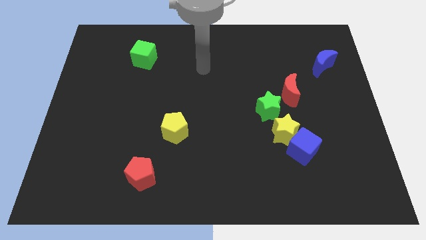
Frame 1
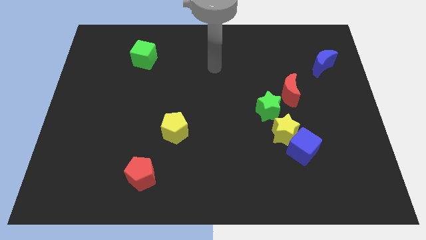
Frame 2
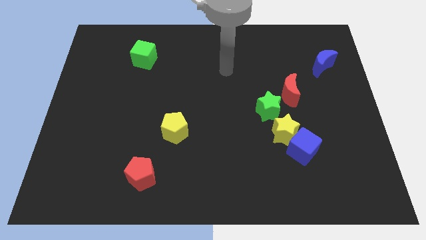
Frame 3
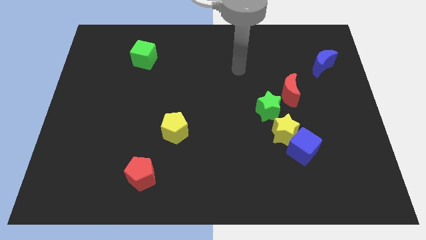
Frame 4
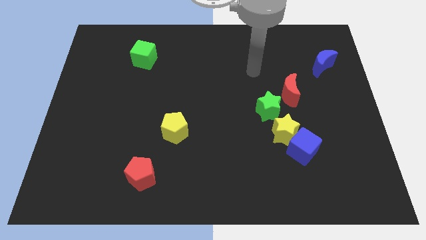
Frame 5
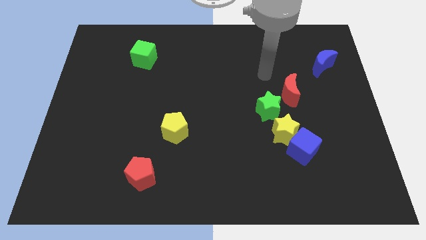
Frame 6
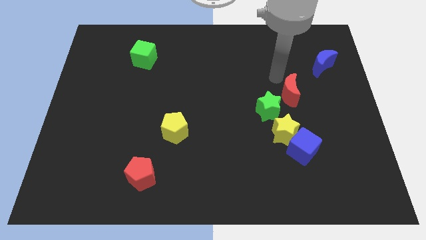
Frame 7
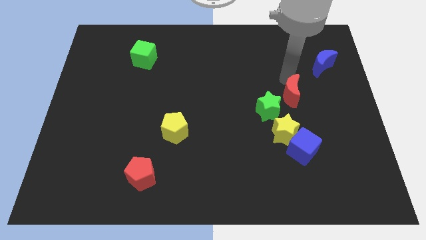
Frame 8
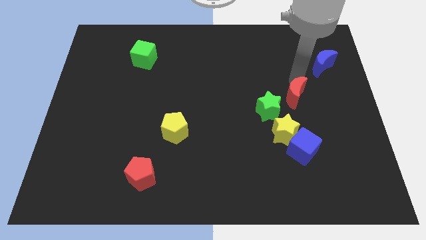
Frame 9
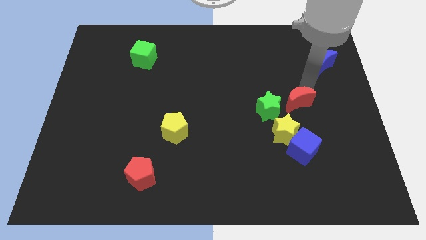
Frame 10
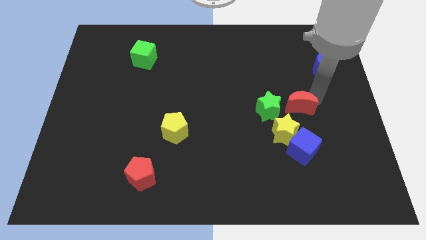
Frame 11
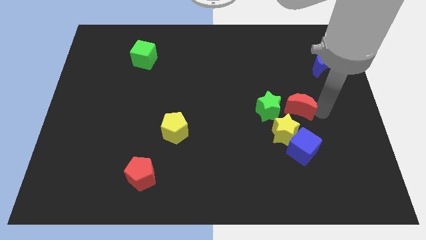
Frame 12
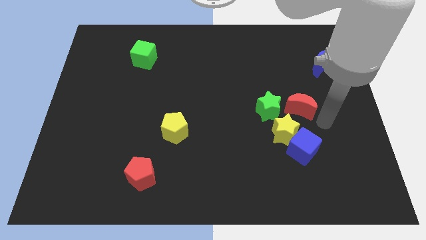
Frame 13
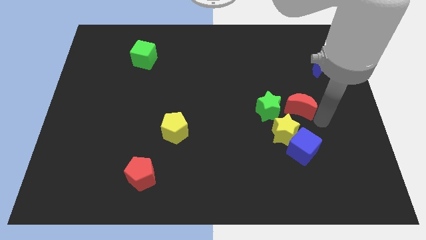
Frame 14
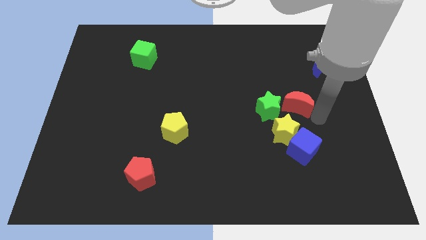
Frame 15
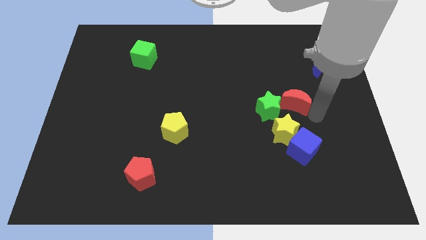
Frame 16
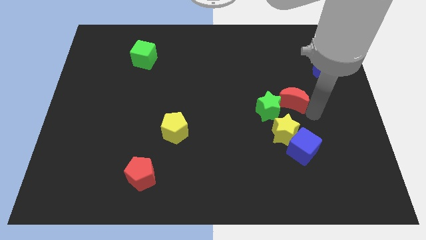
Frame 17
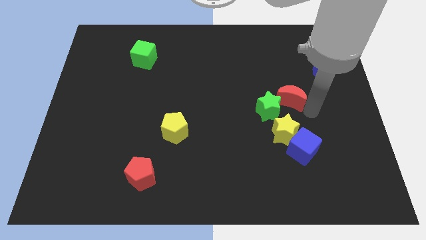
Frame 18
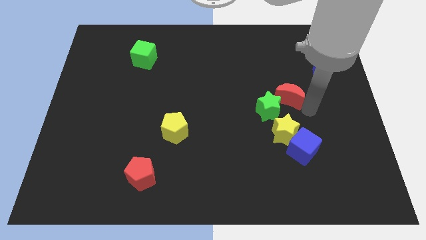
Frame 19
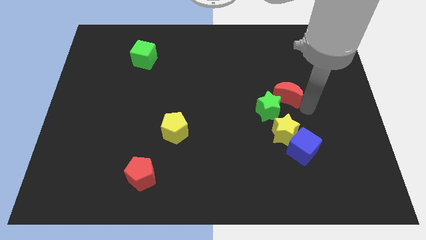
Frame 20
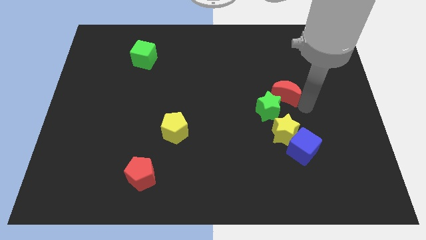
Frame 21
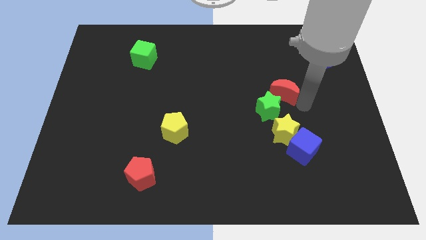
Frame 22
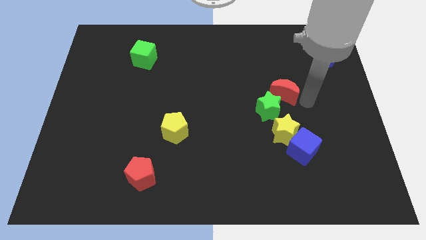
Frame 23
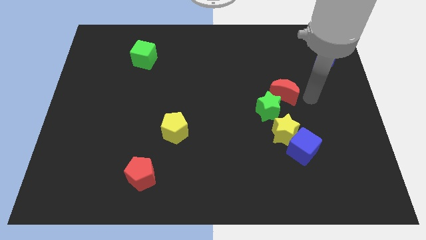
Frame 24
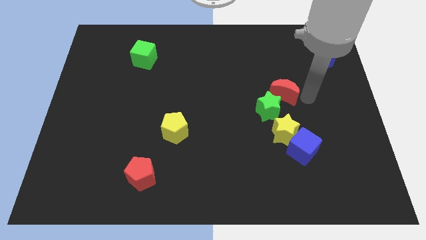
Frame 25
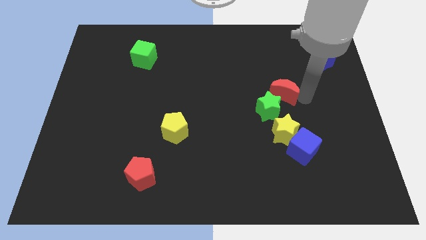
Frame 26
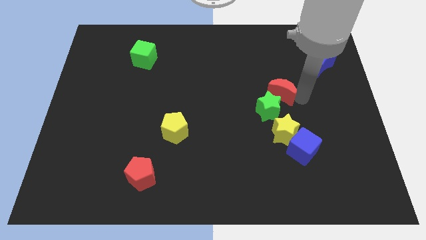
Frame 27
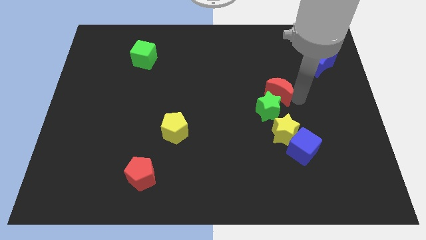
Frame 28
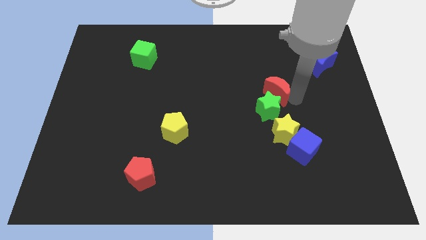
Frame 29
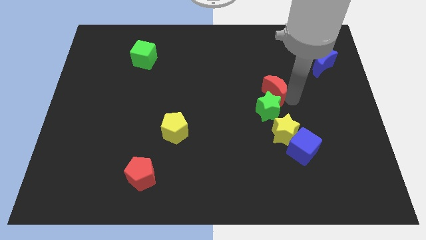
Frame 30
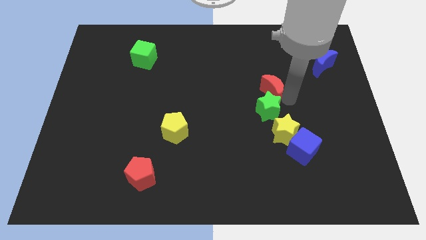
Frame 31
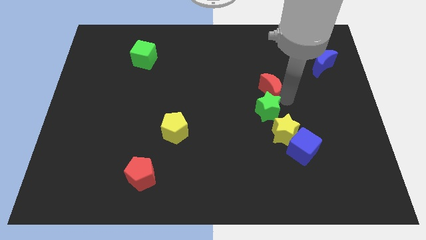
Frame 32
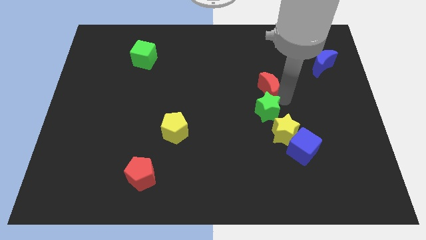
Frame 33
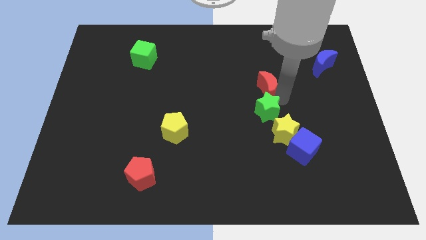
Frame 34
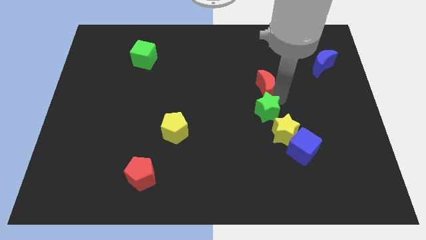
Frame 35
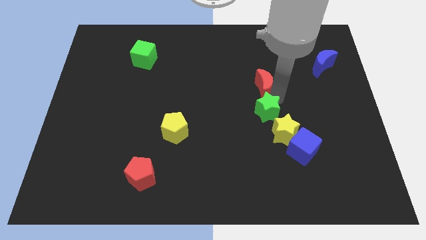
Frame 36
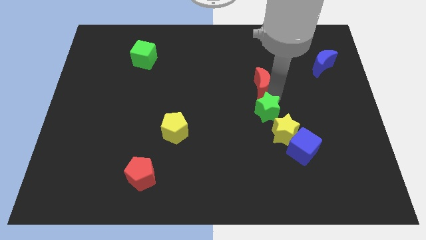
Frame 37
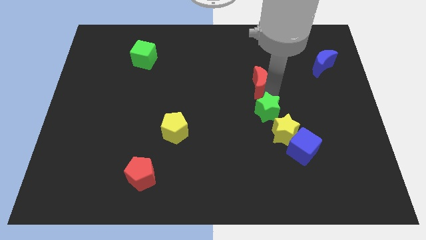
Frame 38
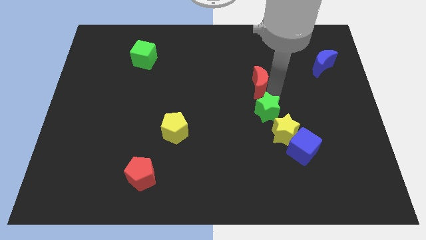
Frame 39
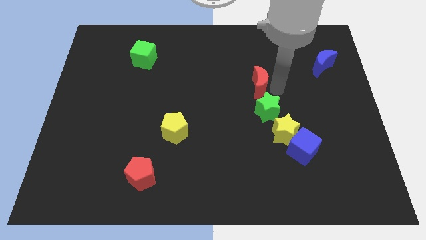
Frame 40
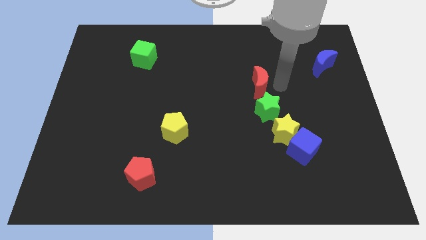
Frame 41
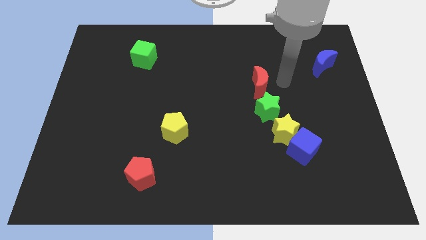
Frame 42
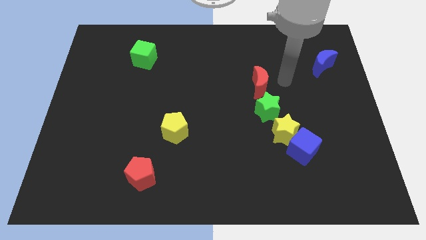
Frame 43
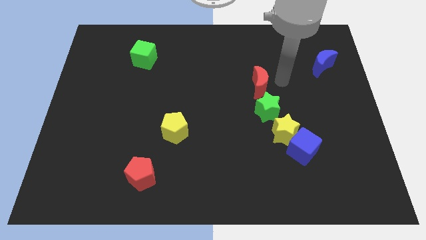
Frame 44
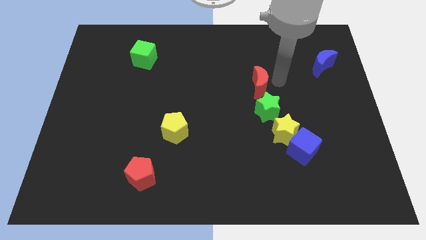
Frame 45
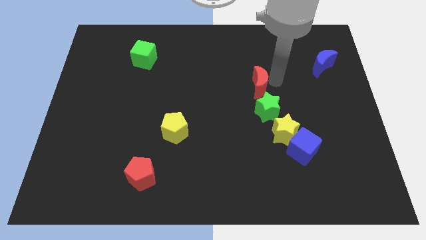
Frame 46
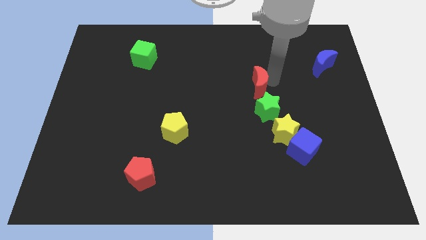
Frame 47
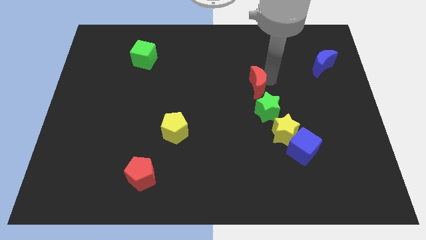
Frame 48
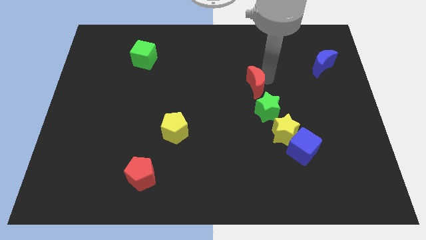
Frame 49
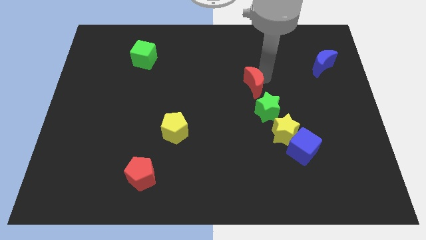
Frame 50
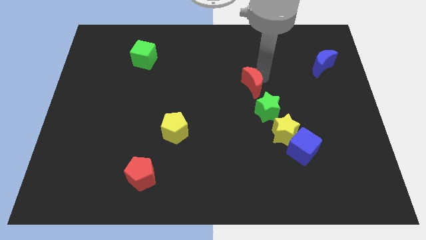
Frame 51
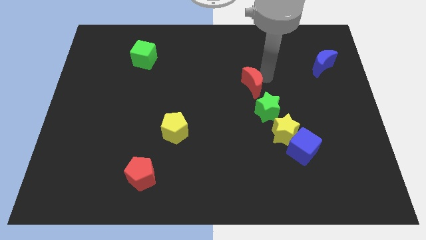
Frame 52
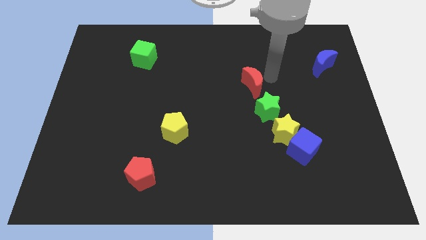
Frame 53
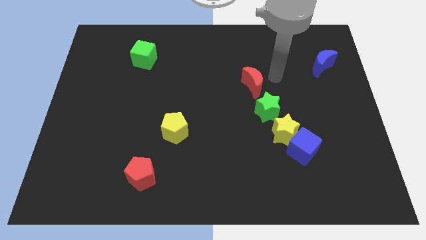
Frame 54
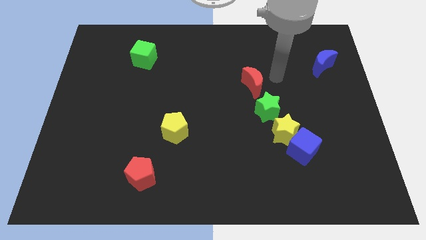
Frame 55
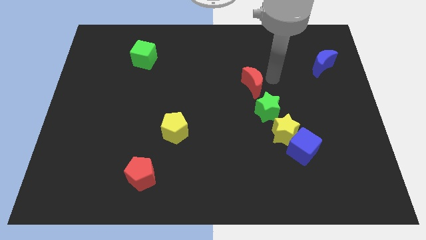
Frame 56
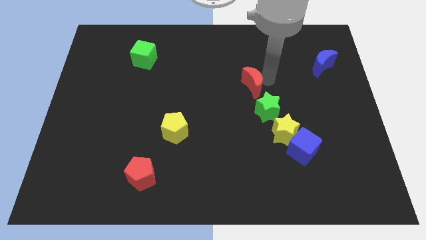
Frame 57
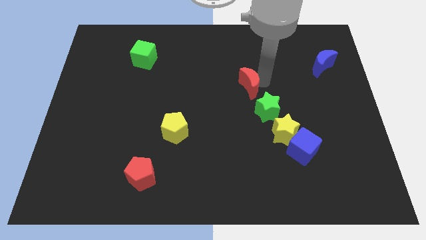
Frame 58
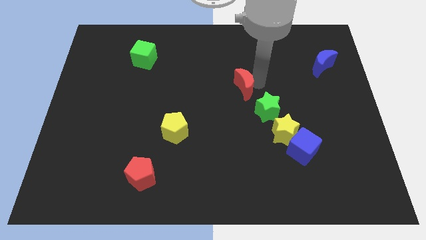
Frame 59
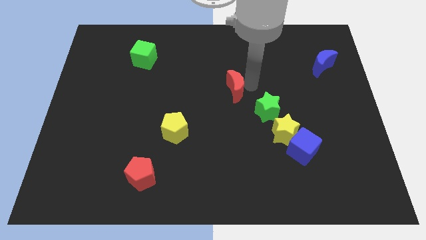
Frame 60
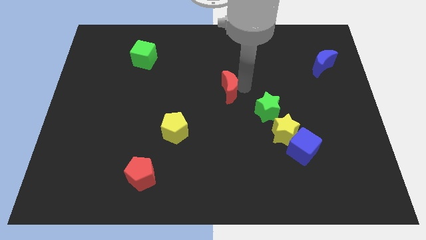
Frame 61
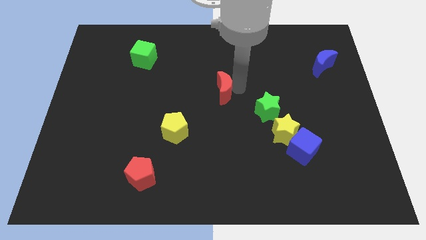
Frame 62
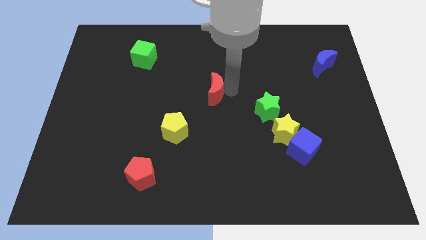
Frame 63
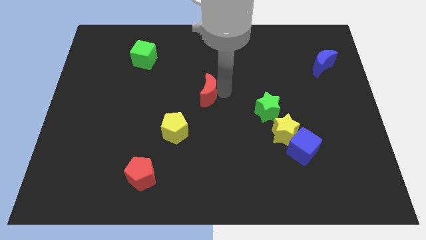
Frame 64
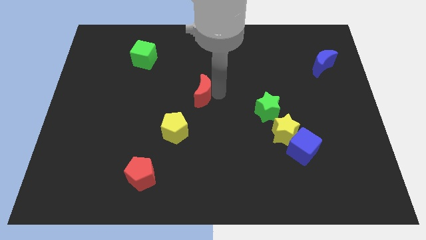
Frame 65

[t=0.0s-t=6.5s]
slide the red moon to the left

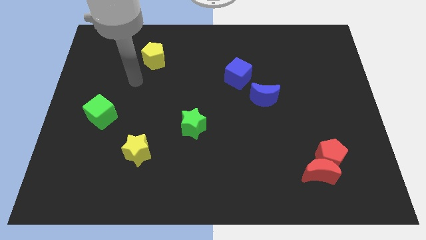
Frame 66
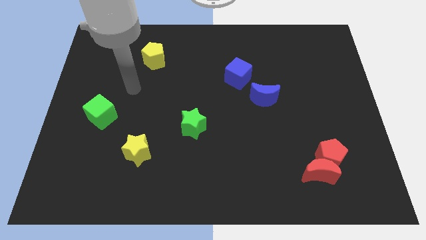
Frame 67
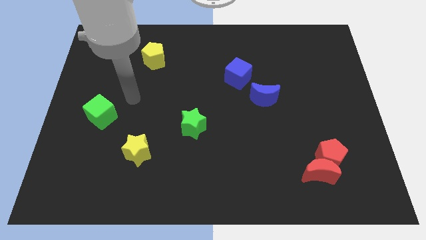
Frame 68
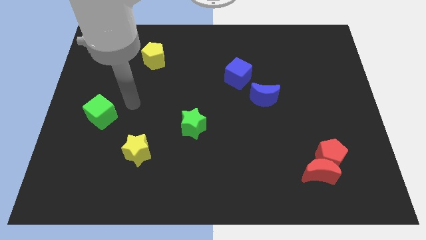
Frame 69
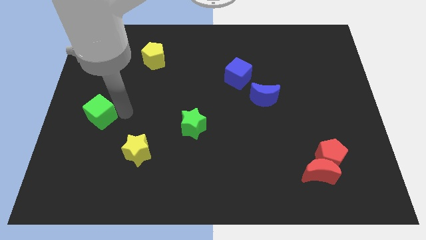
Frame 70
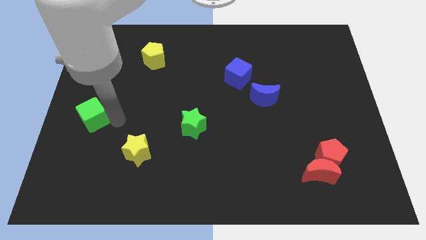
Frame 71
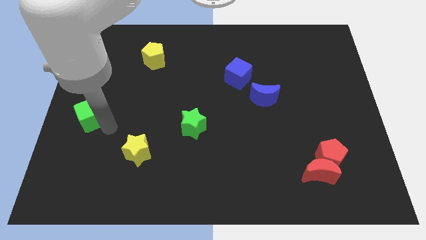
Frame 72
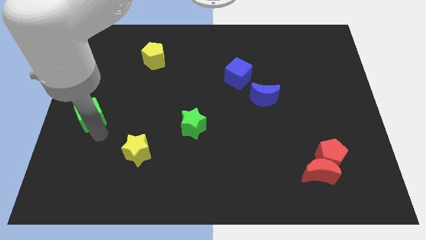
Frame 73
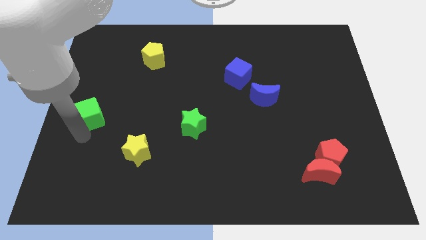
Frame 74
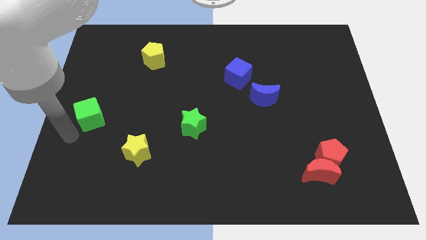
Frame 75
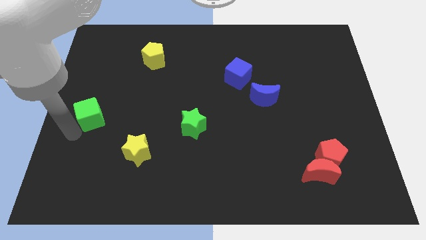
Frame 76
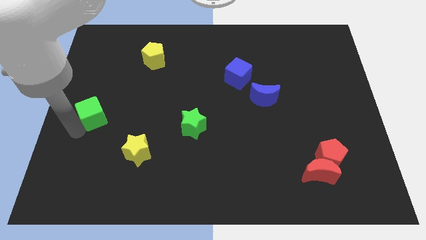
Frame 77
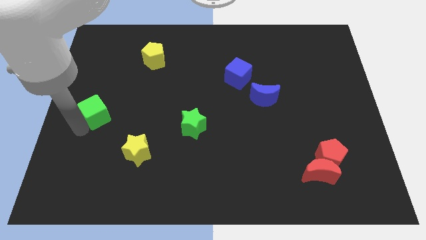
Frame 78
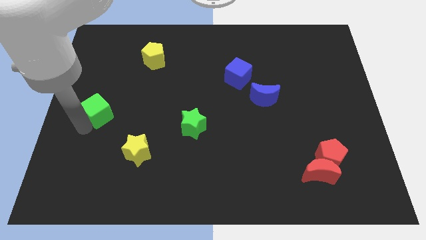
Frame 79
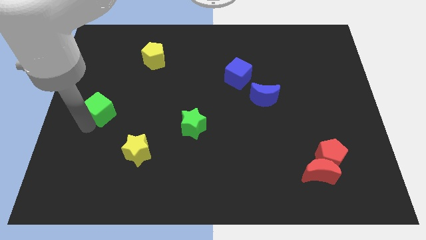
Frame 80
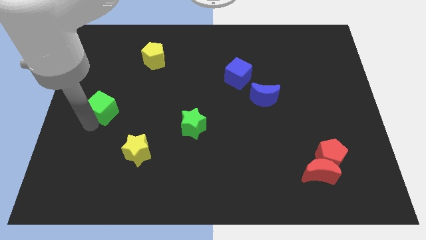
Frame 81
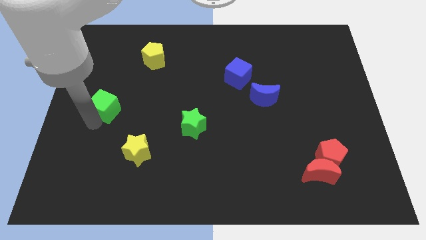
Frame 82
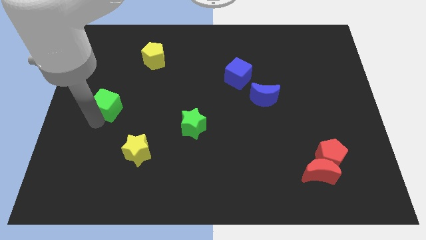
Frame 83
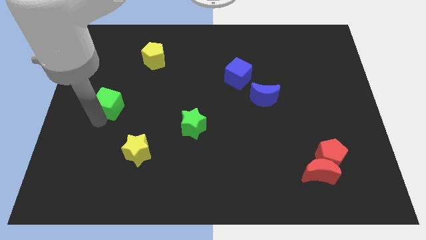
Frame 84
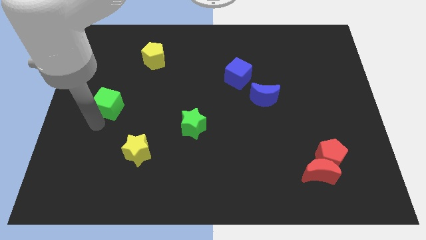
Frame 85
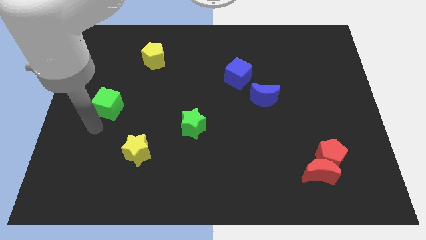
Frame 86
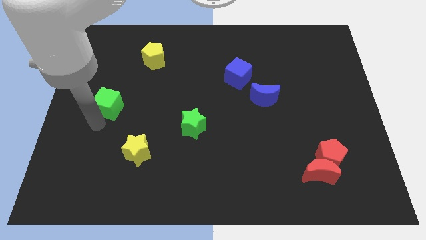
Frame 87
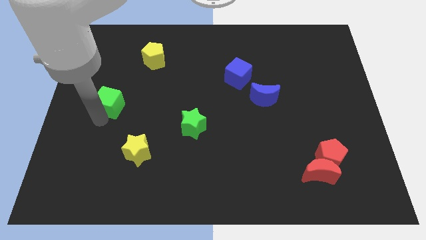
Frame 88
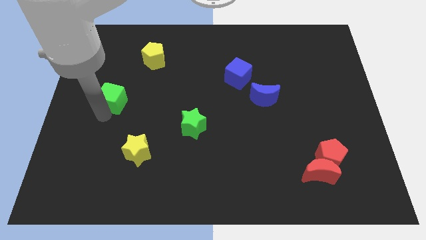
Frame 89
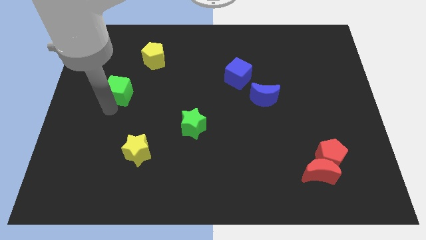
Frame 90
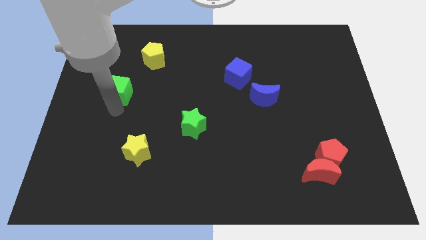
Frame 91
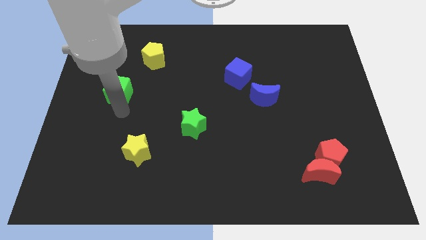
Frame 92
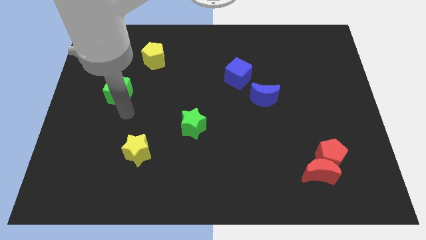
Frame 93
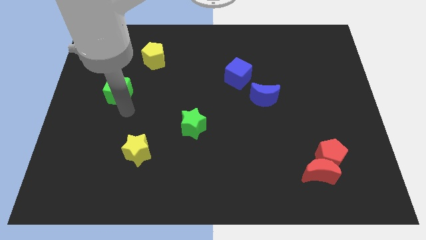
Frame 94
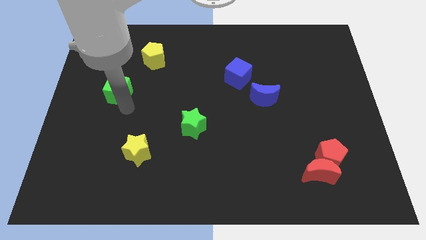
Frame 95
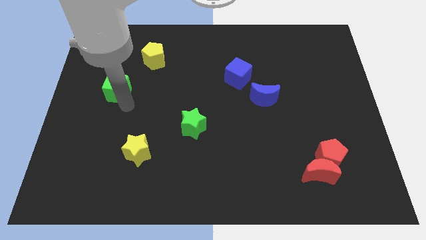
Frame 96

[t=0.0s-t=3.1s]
move the green cube up a little bit
